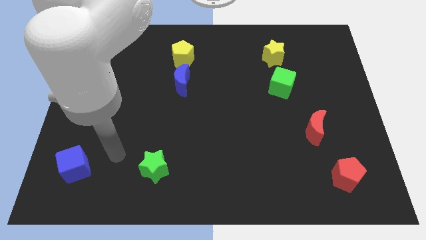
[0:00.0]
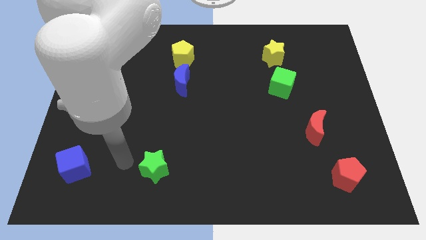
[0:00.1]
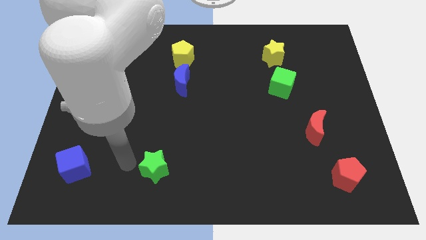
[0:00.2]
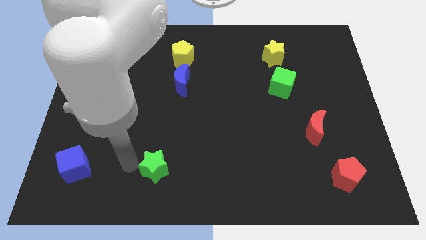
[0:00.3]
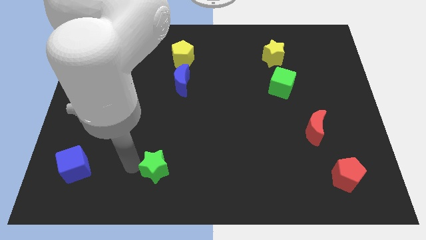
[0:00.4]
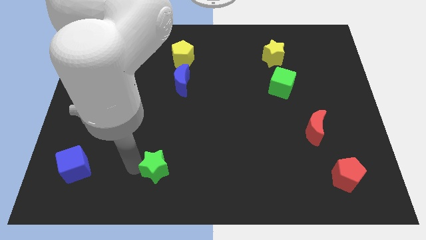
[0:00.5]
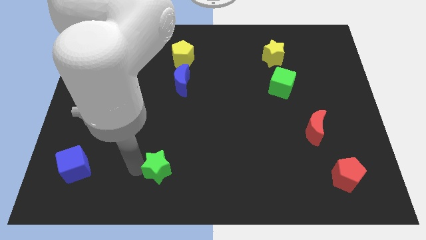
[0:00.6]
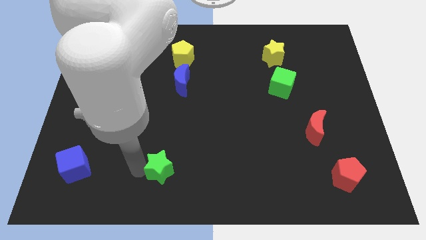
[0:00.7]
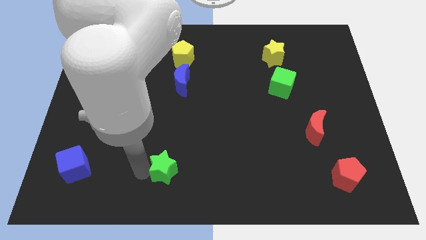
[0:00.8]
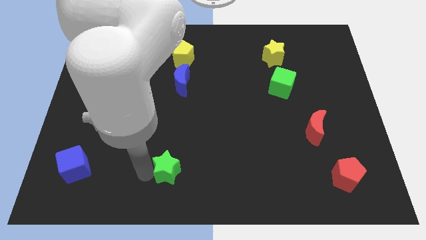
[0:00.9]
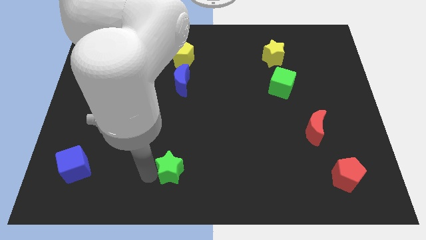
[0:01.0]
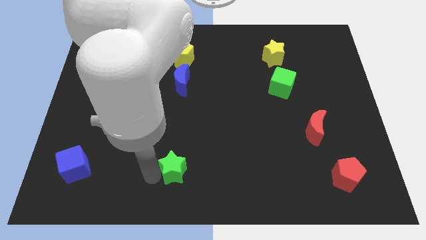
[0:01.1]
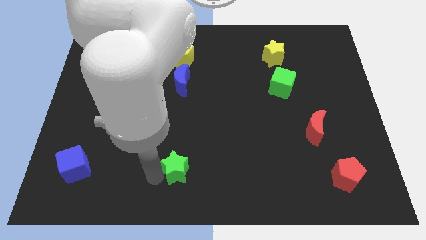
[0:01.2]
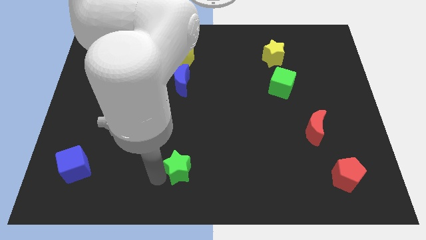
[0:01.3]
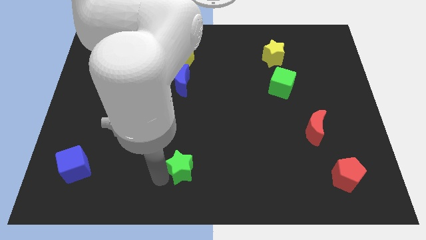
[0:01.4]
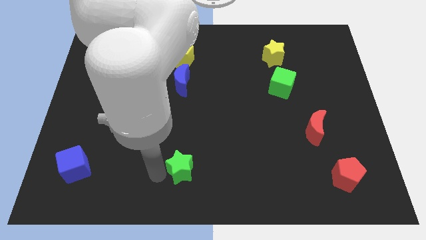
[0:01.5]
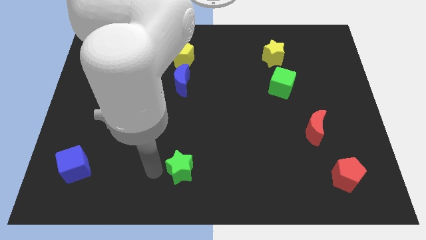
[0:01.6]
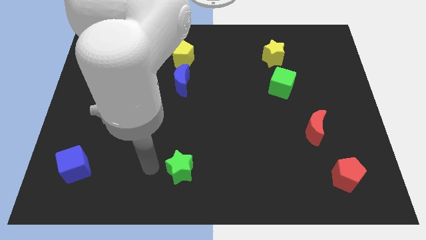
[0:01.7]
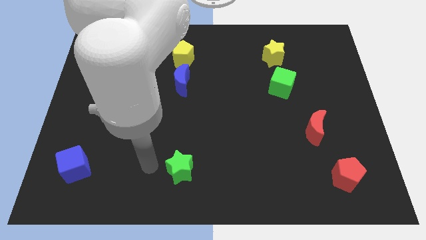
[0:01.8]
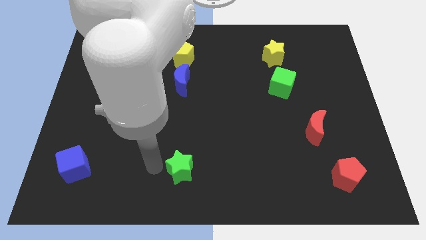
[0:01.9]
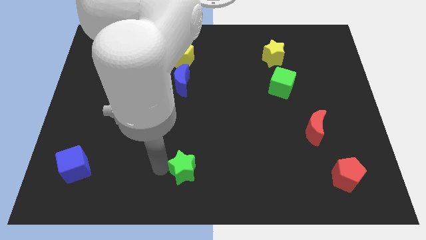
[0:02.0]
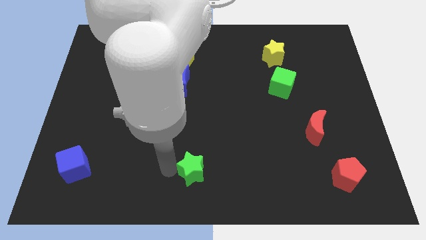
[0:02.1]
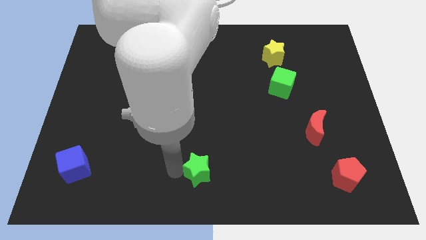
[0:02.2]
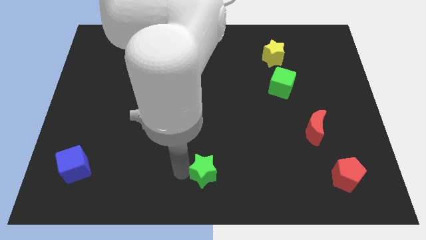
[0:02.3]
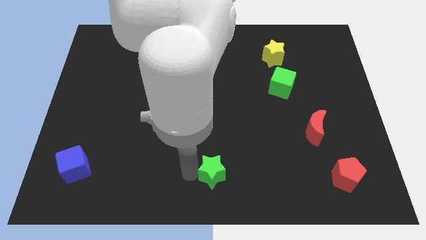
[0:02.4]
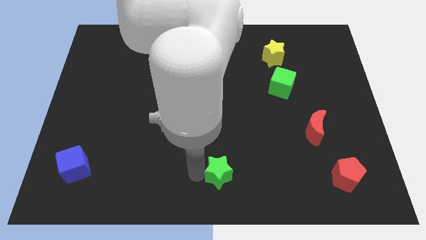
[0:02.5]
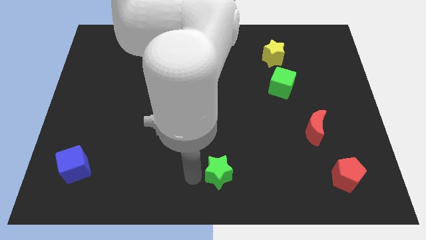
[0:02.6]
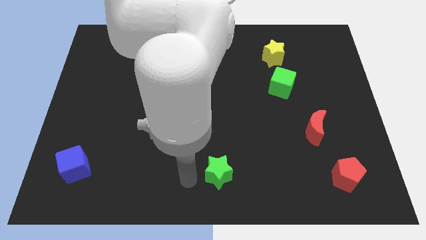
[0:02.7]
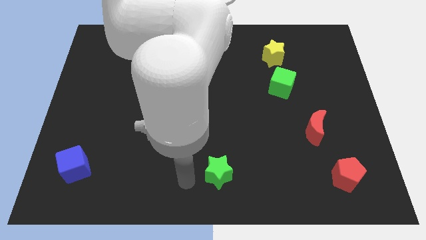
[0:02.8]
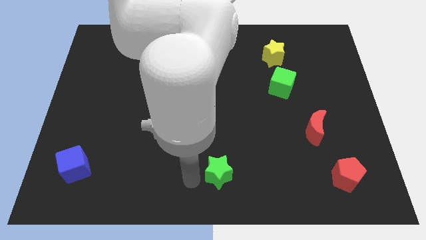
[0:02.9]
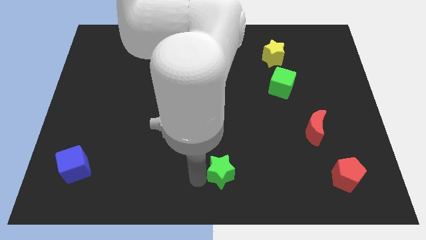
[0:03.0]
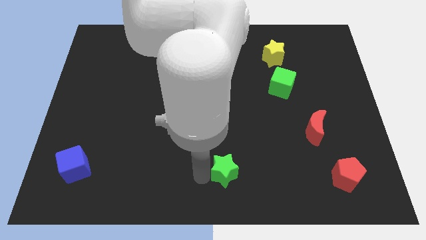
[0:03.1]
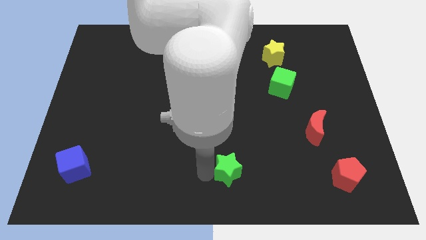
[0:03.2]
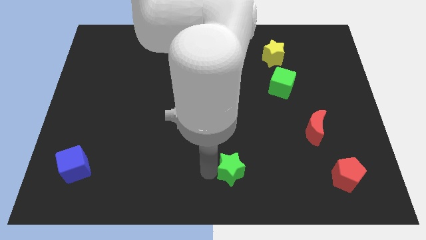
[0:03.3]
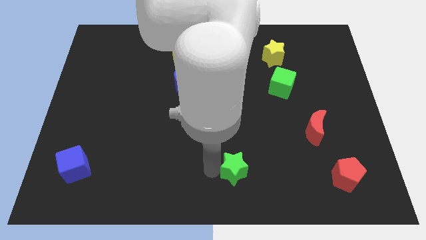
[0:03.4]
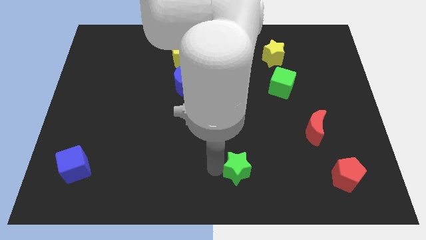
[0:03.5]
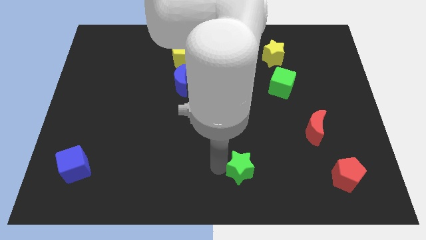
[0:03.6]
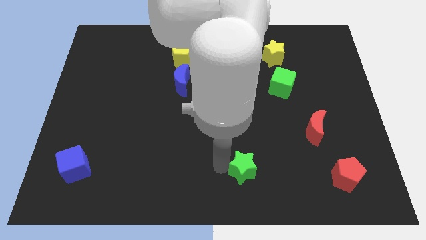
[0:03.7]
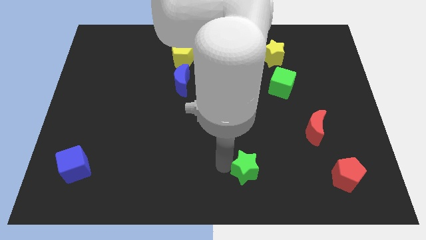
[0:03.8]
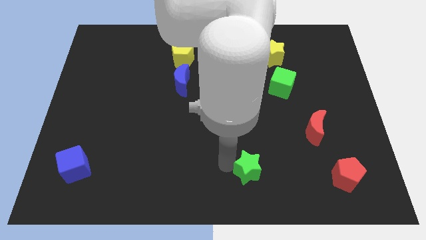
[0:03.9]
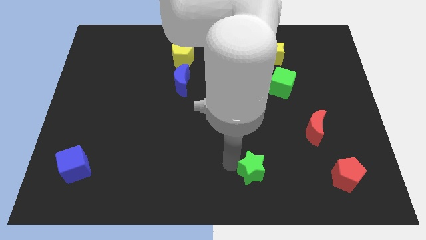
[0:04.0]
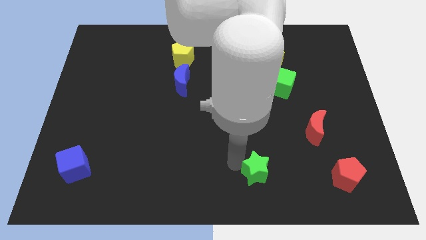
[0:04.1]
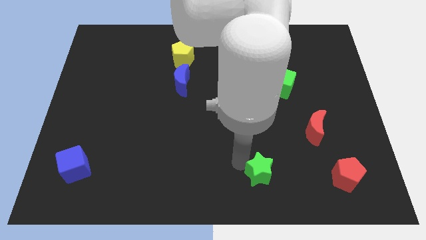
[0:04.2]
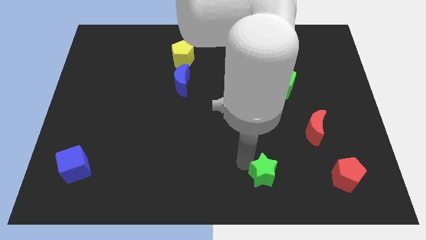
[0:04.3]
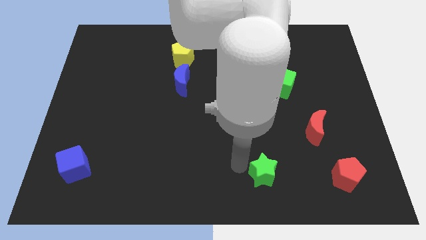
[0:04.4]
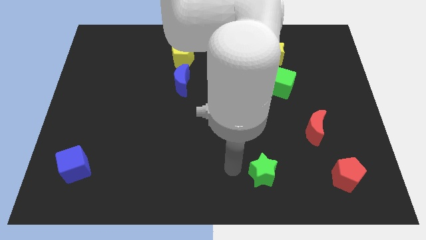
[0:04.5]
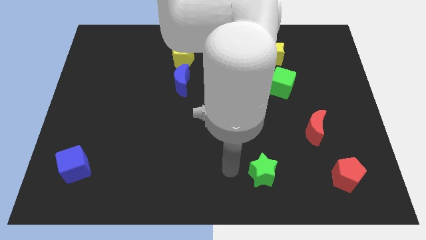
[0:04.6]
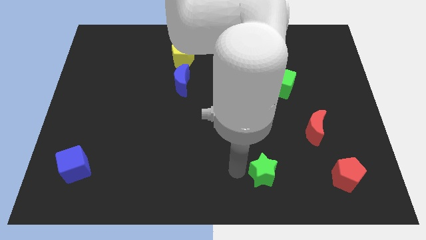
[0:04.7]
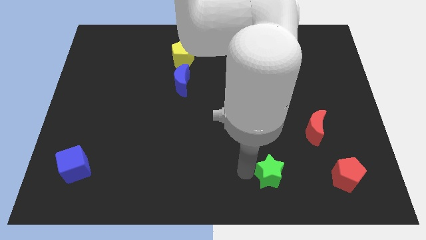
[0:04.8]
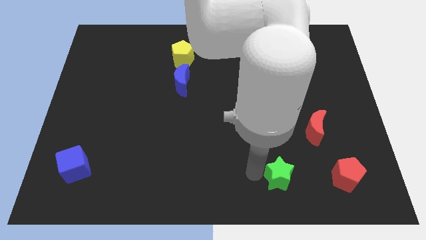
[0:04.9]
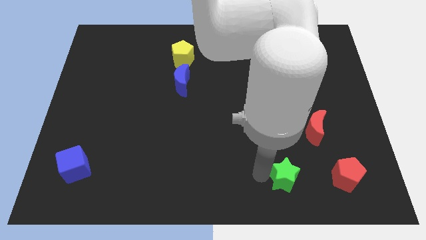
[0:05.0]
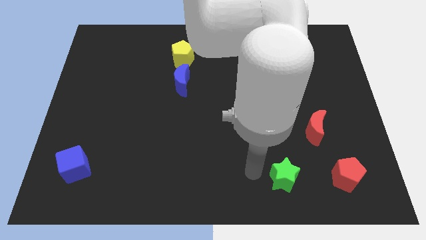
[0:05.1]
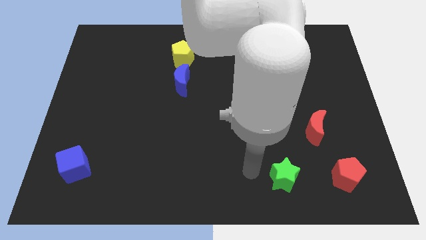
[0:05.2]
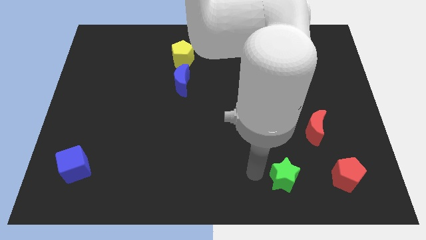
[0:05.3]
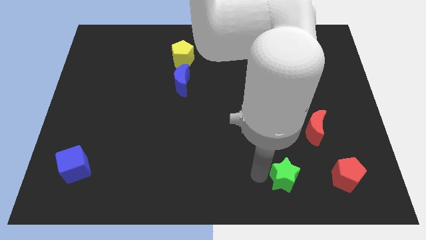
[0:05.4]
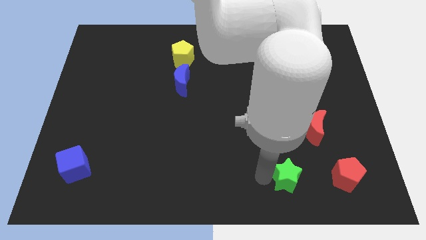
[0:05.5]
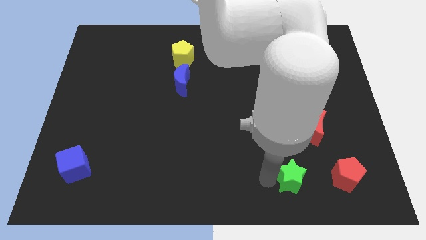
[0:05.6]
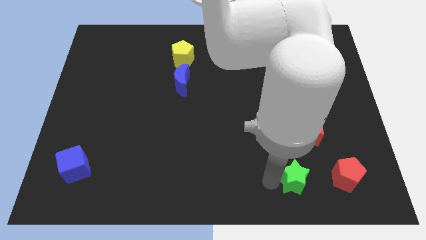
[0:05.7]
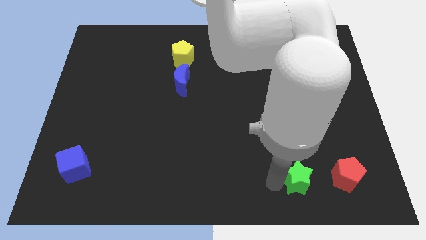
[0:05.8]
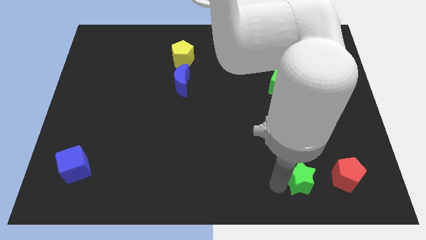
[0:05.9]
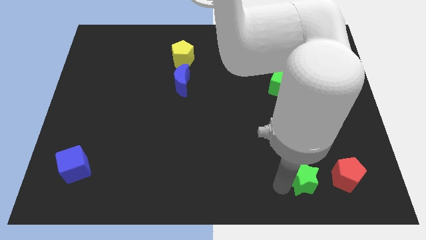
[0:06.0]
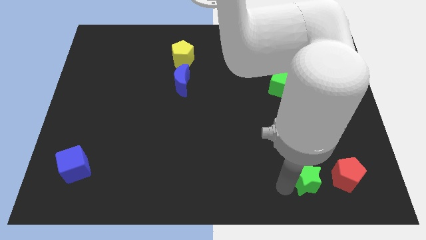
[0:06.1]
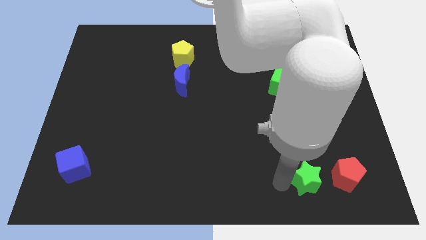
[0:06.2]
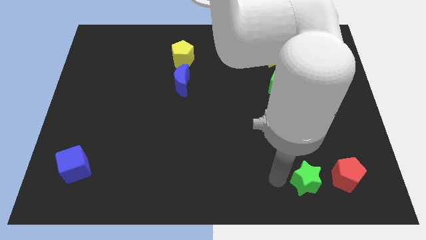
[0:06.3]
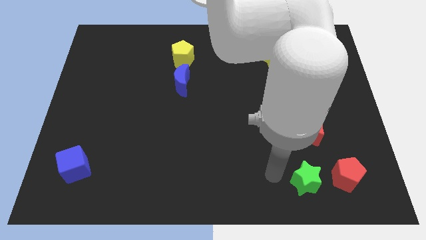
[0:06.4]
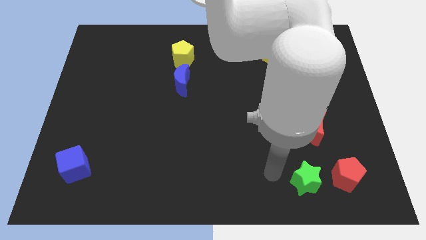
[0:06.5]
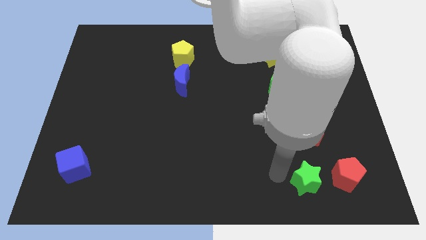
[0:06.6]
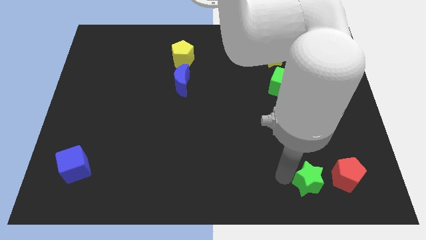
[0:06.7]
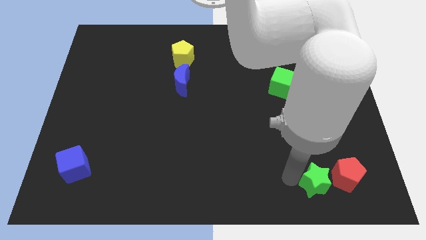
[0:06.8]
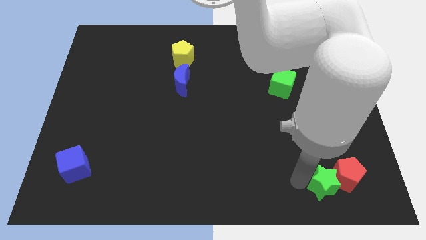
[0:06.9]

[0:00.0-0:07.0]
slide the green star next to the red pentagon
